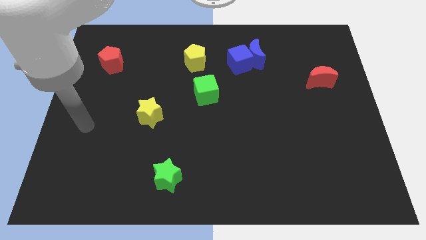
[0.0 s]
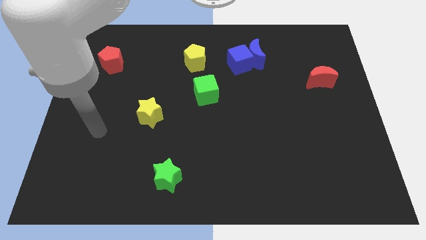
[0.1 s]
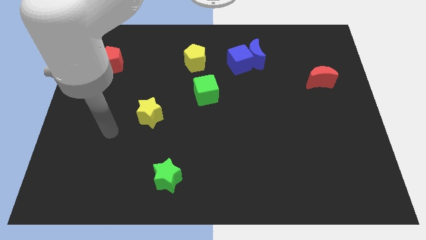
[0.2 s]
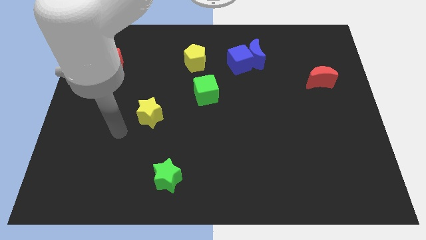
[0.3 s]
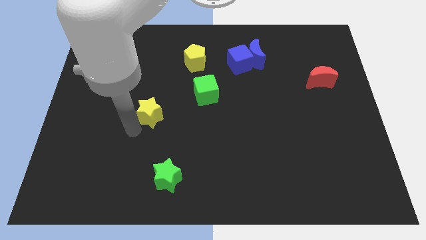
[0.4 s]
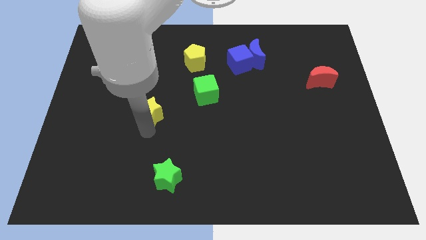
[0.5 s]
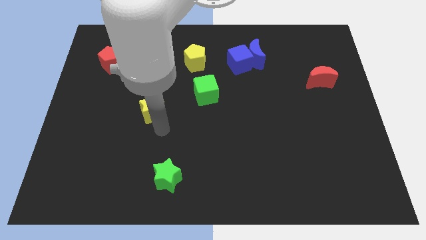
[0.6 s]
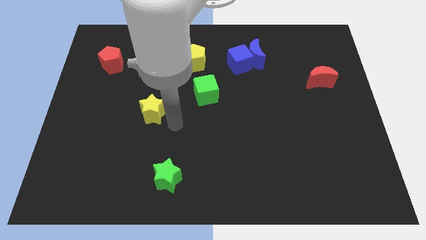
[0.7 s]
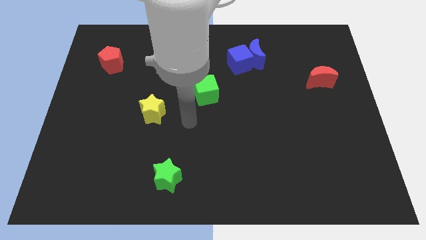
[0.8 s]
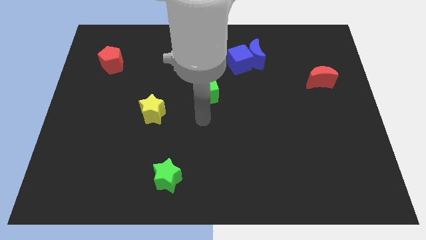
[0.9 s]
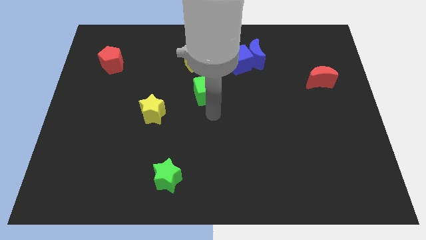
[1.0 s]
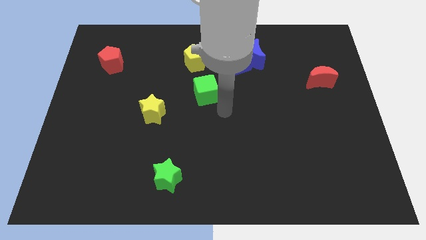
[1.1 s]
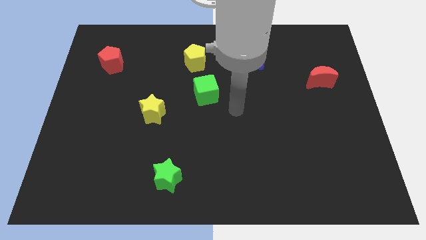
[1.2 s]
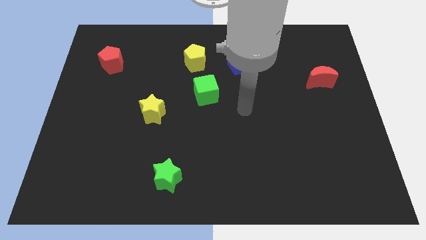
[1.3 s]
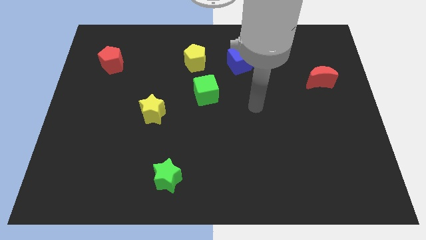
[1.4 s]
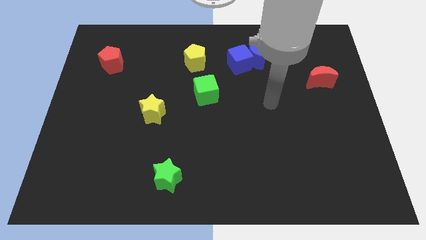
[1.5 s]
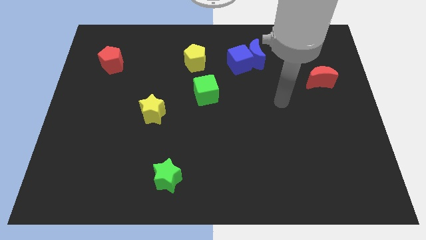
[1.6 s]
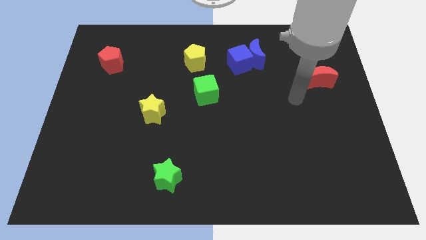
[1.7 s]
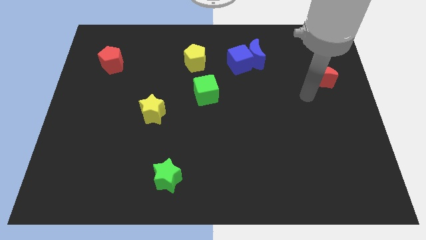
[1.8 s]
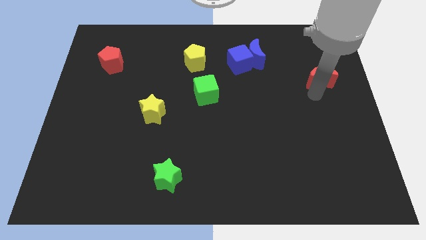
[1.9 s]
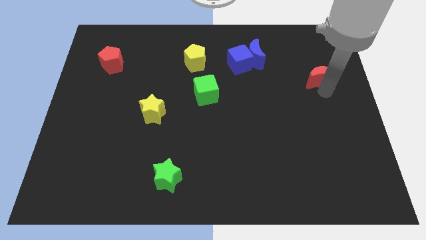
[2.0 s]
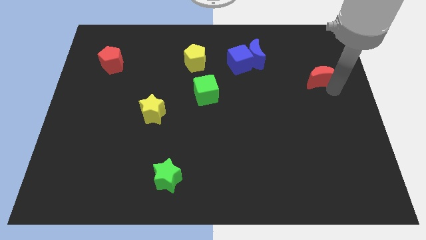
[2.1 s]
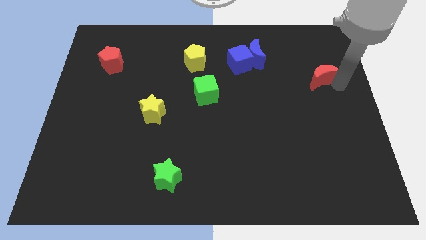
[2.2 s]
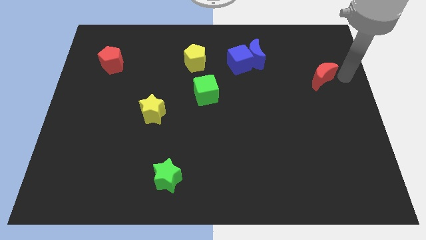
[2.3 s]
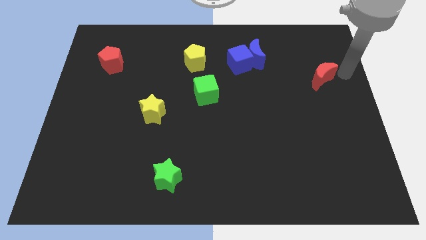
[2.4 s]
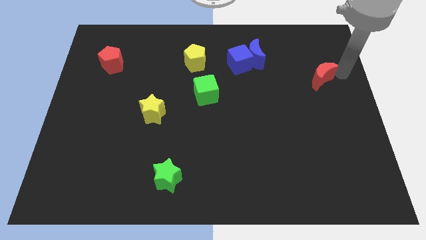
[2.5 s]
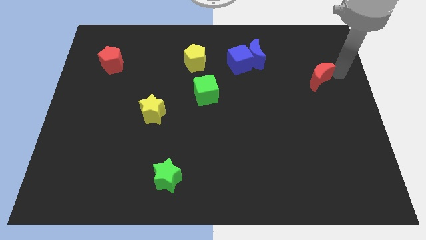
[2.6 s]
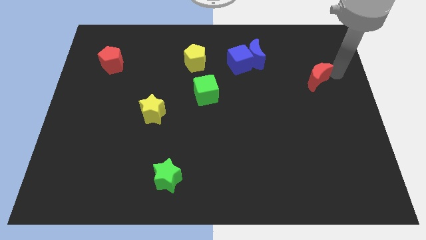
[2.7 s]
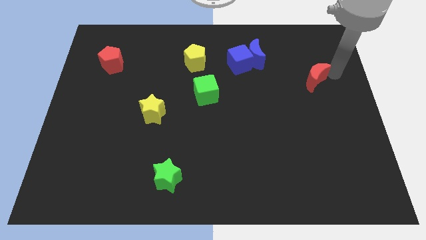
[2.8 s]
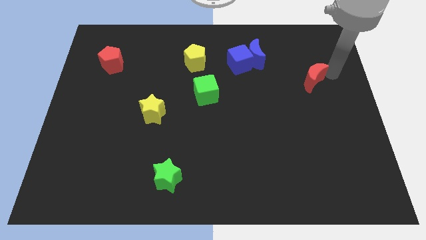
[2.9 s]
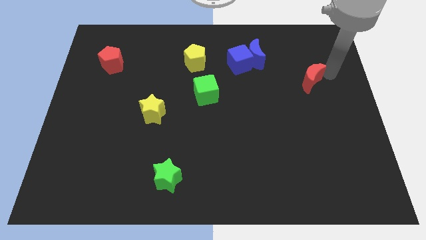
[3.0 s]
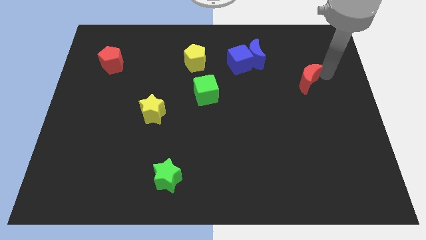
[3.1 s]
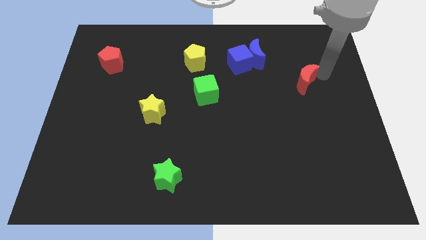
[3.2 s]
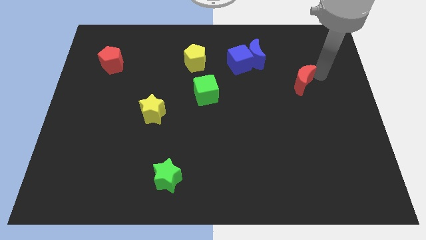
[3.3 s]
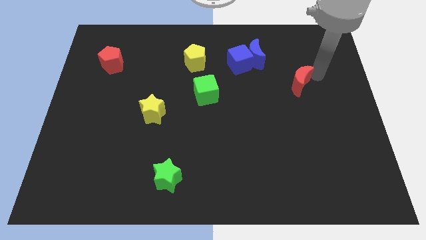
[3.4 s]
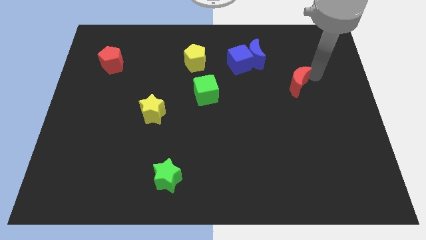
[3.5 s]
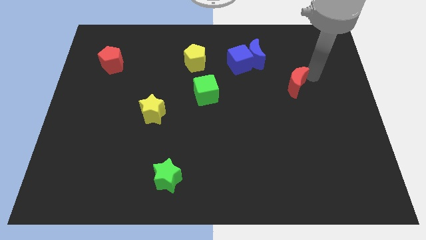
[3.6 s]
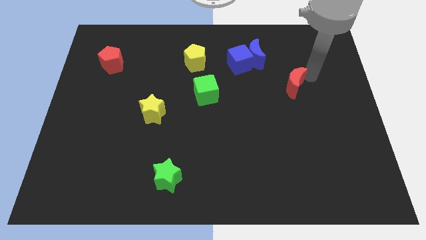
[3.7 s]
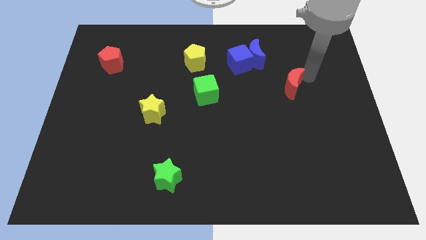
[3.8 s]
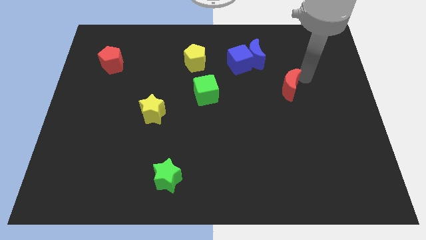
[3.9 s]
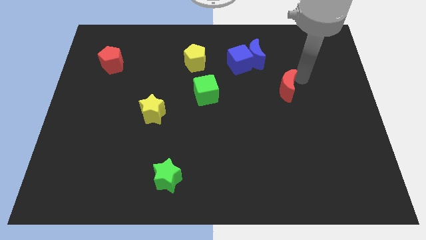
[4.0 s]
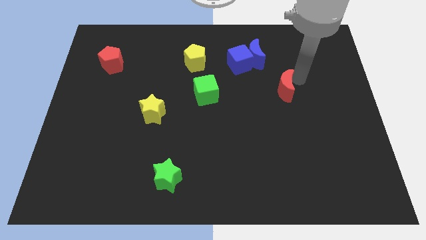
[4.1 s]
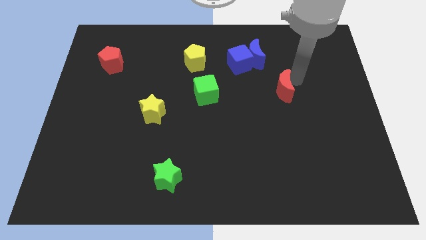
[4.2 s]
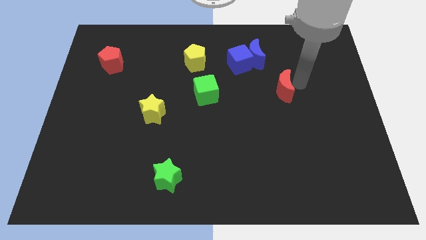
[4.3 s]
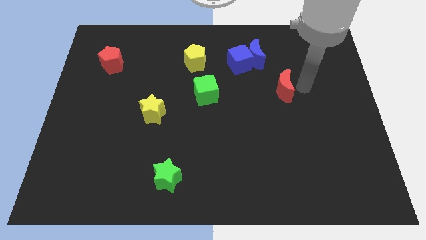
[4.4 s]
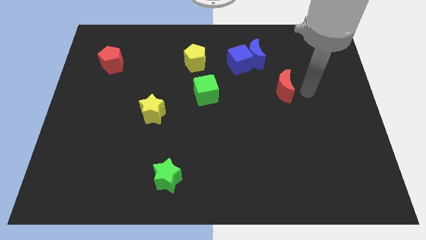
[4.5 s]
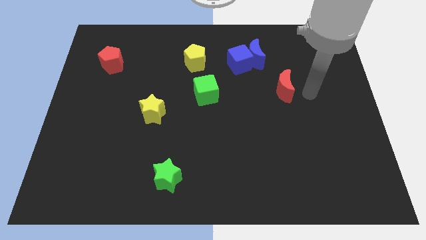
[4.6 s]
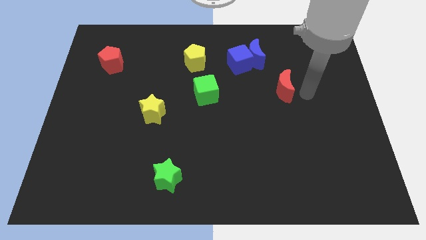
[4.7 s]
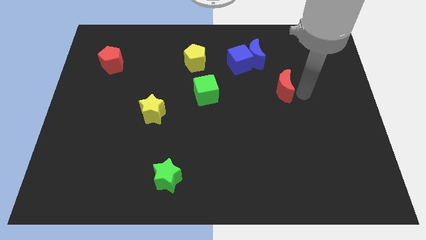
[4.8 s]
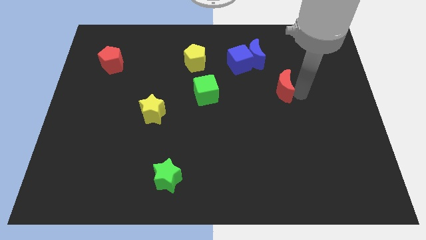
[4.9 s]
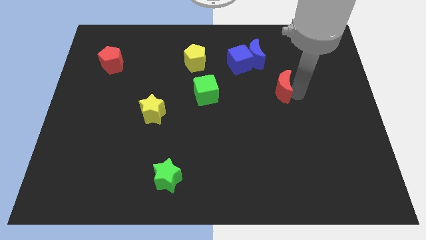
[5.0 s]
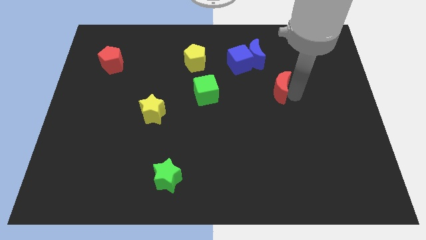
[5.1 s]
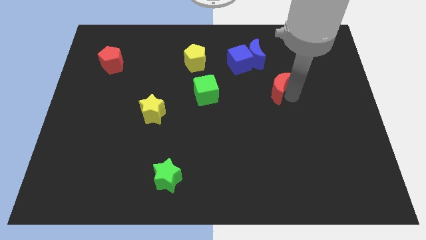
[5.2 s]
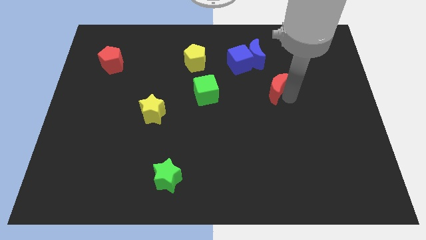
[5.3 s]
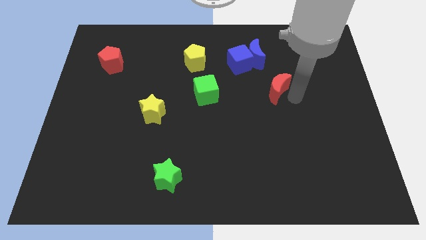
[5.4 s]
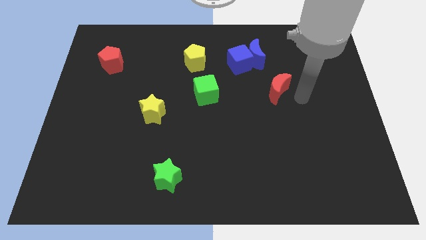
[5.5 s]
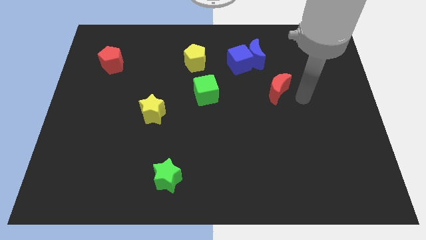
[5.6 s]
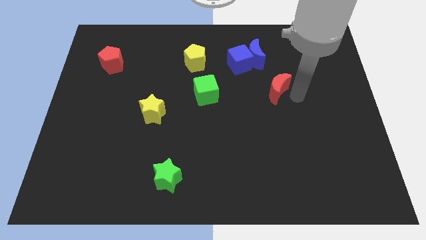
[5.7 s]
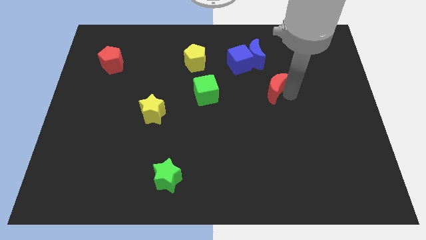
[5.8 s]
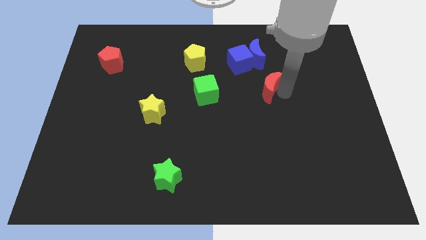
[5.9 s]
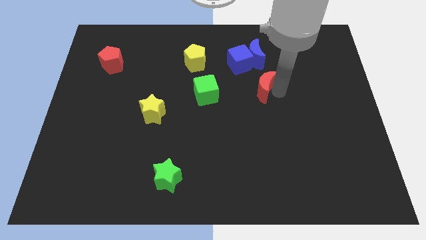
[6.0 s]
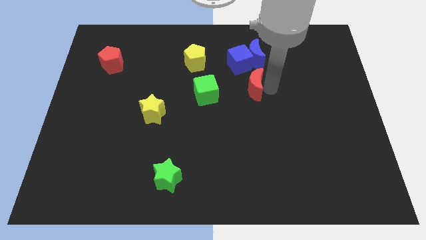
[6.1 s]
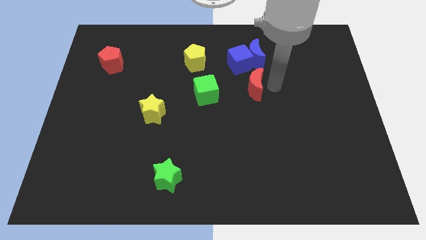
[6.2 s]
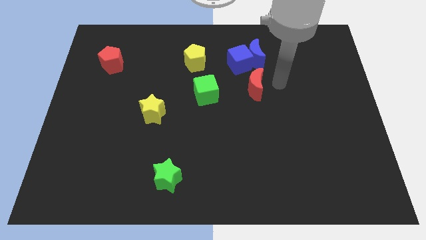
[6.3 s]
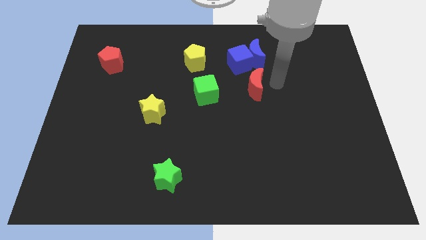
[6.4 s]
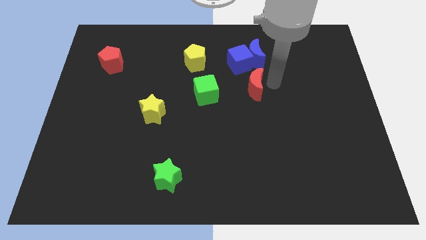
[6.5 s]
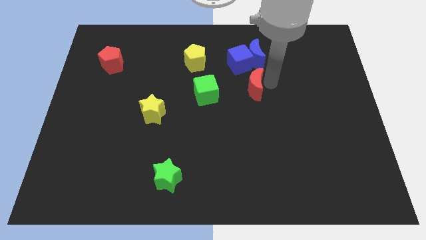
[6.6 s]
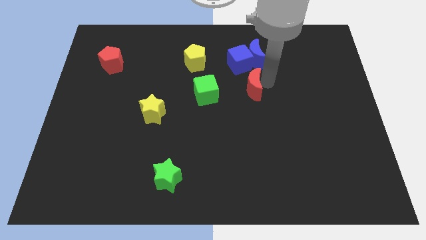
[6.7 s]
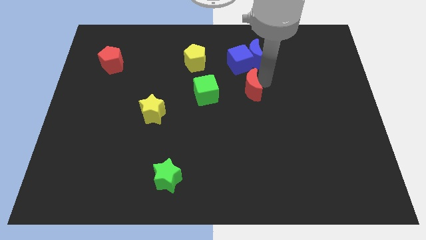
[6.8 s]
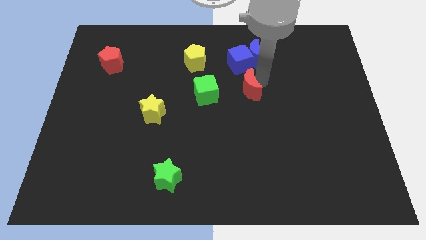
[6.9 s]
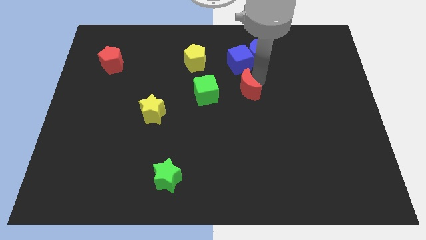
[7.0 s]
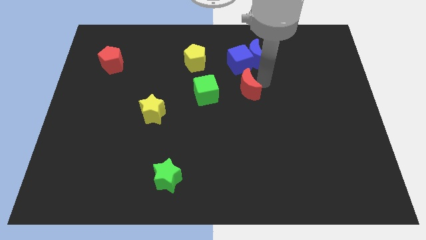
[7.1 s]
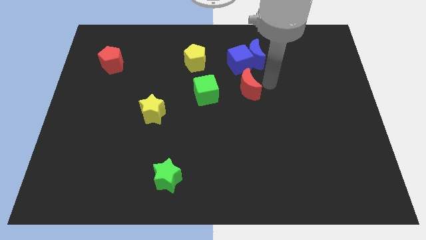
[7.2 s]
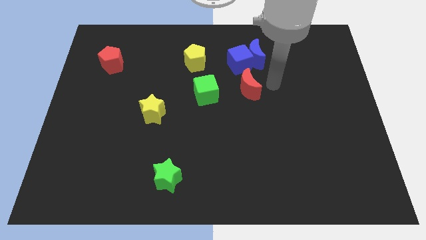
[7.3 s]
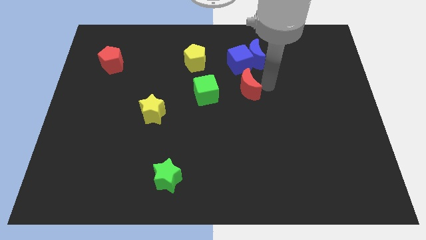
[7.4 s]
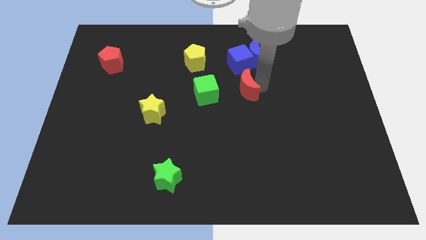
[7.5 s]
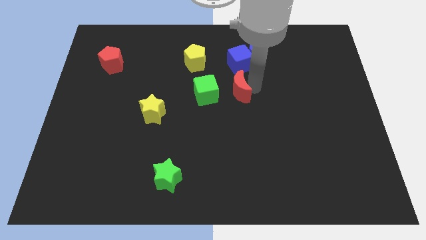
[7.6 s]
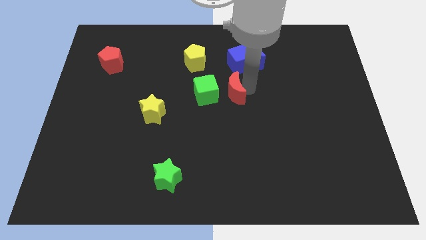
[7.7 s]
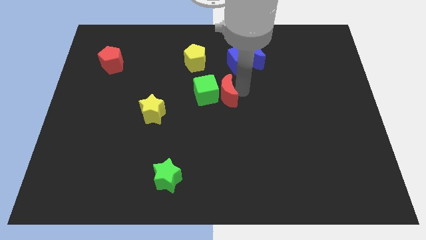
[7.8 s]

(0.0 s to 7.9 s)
move the red moon close to the green cube
